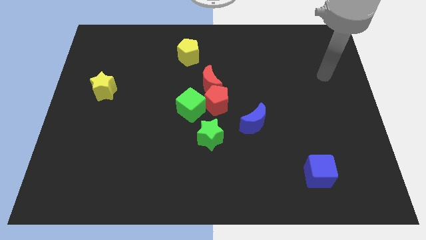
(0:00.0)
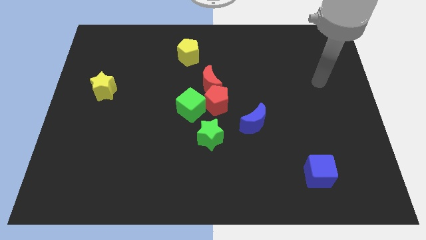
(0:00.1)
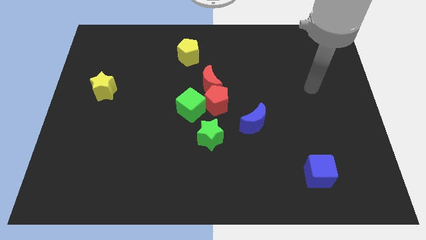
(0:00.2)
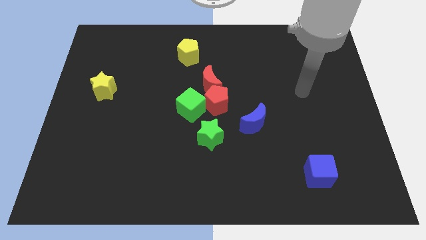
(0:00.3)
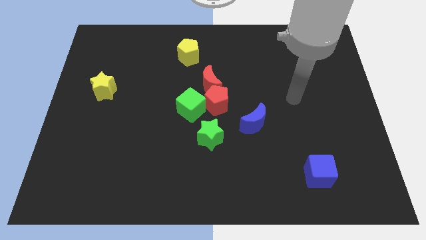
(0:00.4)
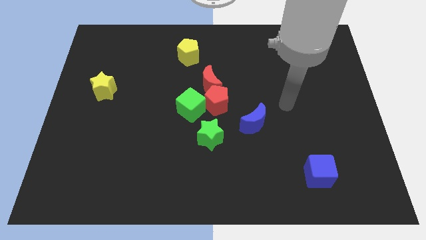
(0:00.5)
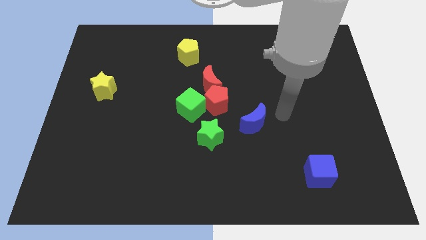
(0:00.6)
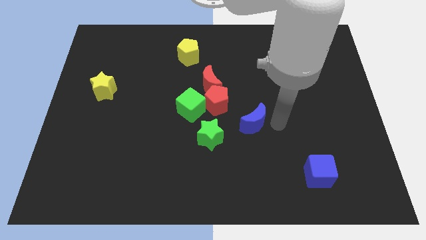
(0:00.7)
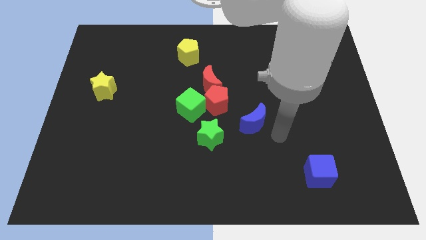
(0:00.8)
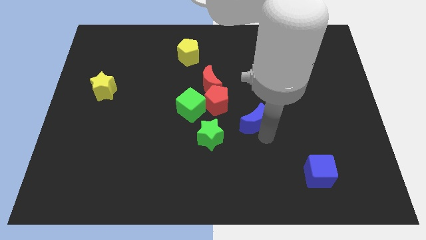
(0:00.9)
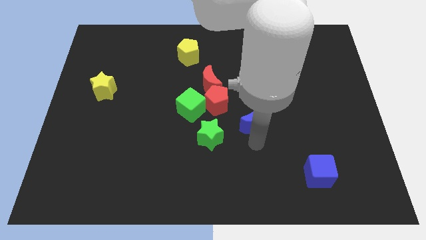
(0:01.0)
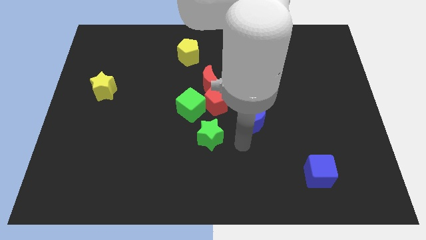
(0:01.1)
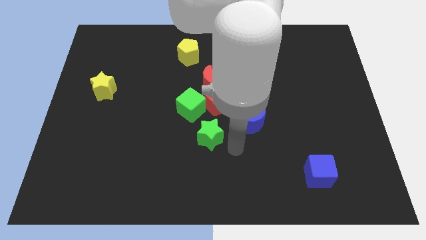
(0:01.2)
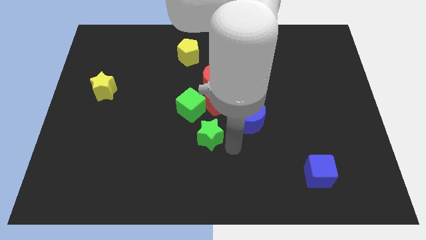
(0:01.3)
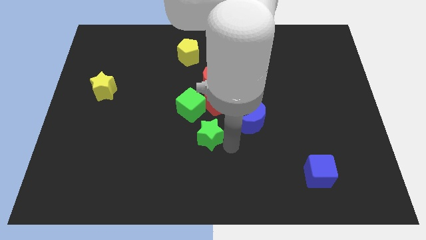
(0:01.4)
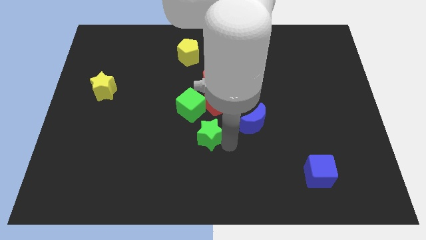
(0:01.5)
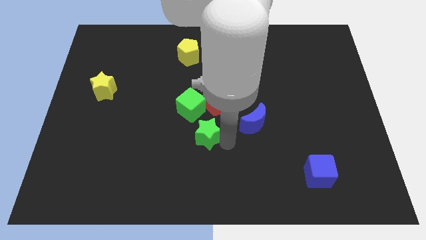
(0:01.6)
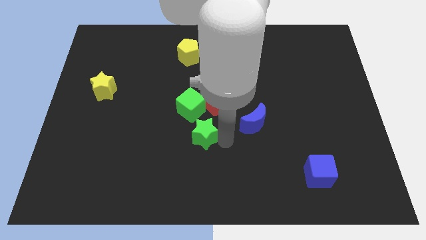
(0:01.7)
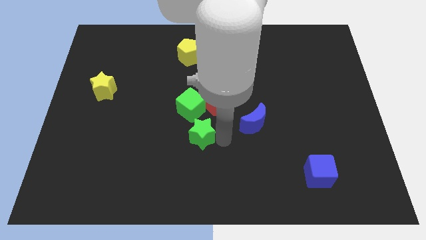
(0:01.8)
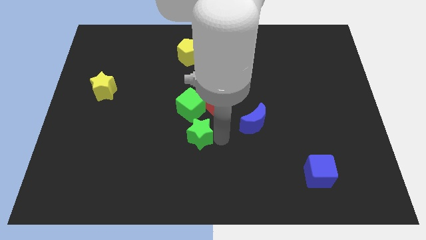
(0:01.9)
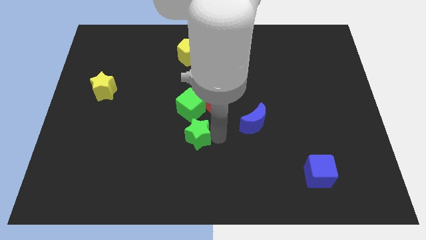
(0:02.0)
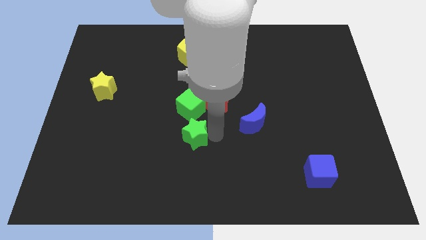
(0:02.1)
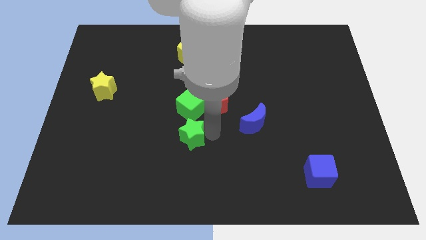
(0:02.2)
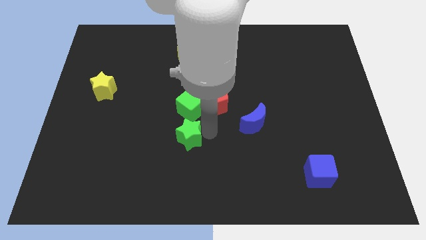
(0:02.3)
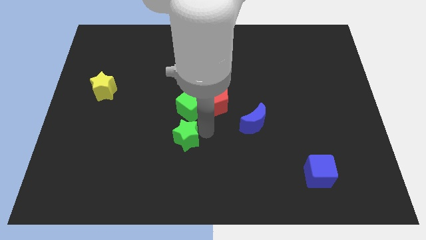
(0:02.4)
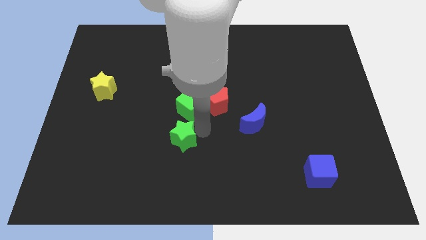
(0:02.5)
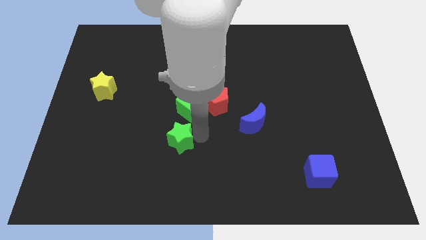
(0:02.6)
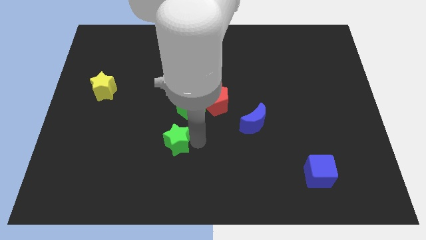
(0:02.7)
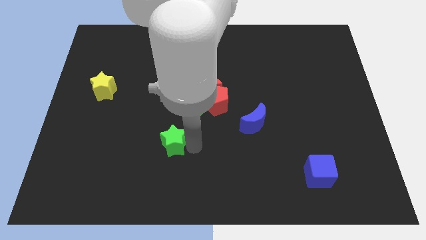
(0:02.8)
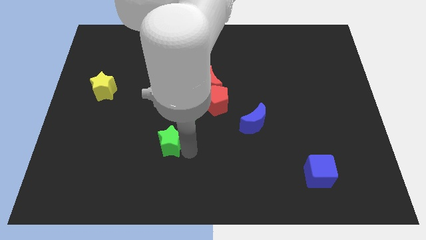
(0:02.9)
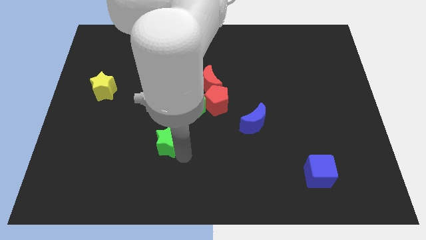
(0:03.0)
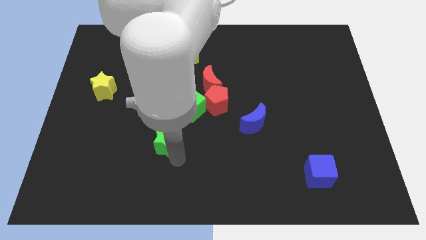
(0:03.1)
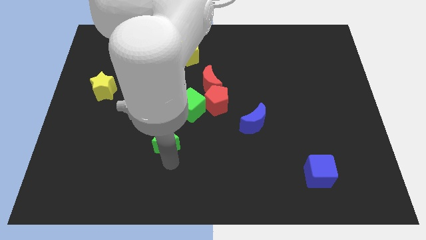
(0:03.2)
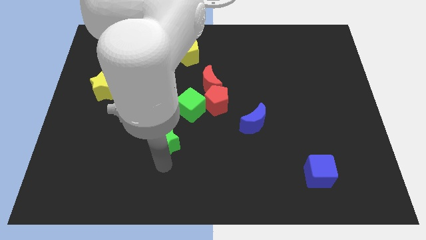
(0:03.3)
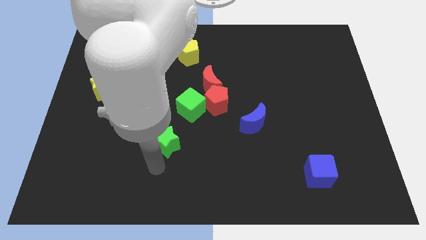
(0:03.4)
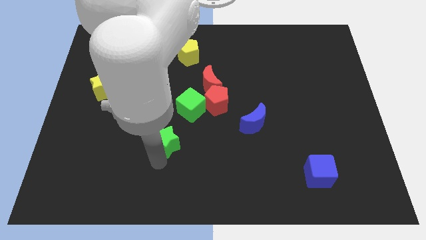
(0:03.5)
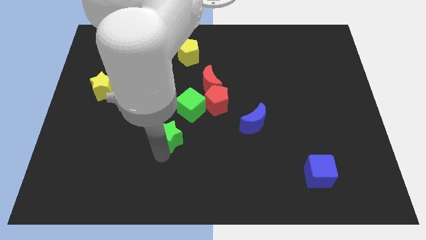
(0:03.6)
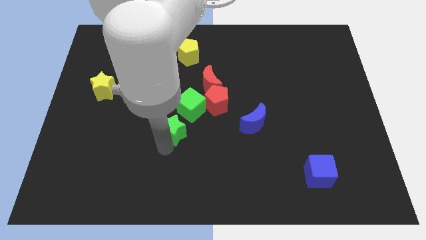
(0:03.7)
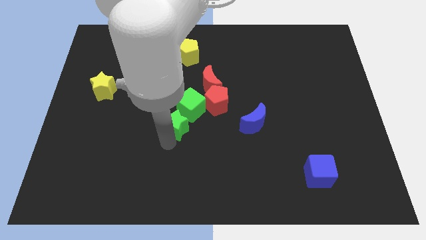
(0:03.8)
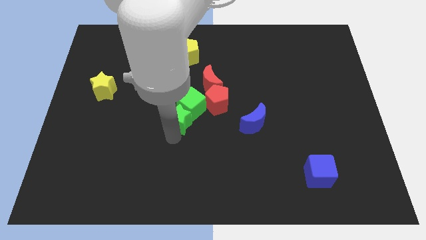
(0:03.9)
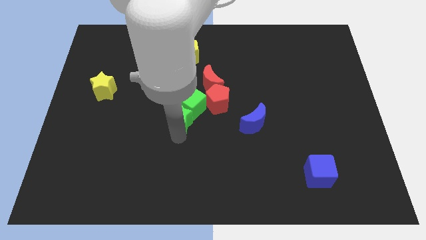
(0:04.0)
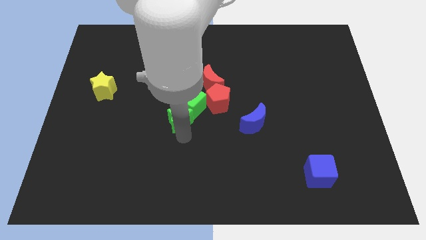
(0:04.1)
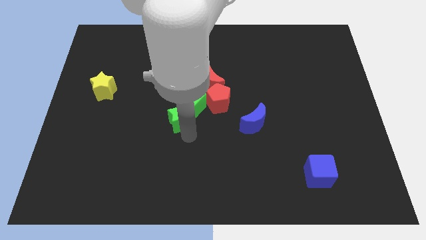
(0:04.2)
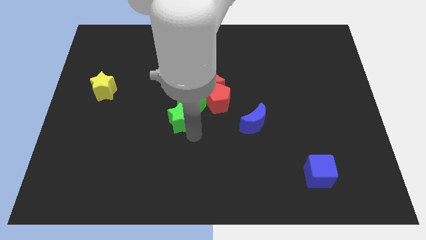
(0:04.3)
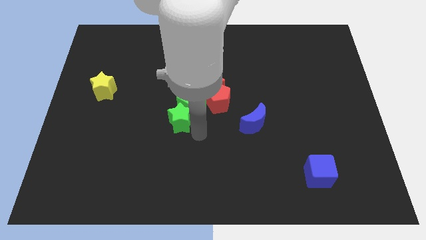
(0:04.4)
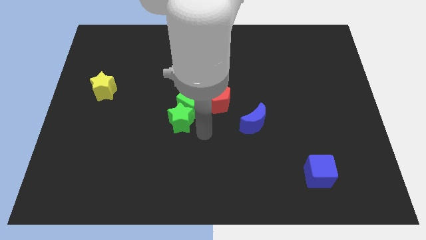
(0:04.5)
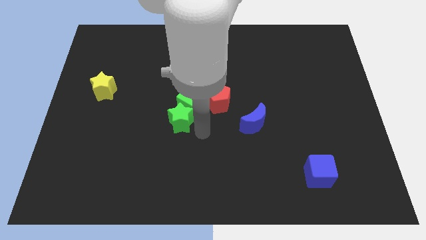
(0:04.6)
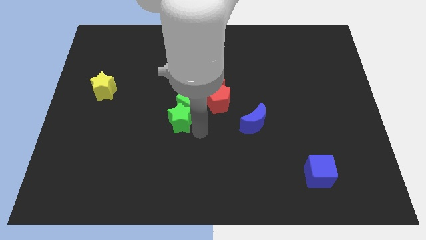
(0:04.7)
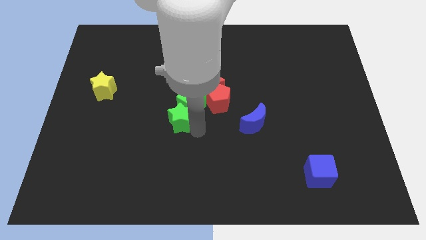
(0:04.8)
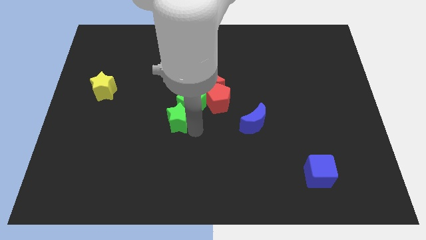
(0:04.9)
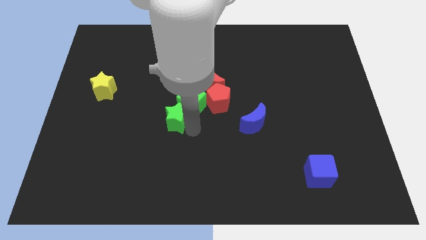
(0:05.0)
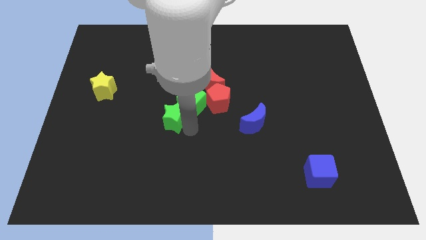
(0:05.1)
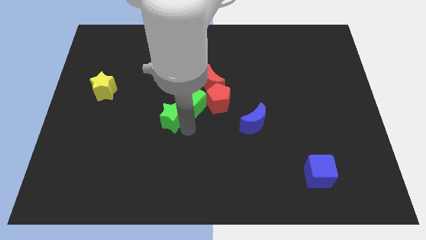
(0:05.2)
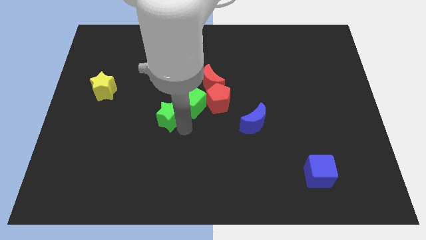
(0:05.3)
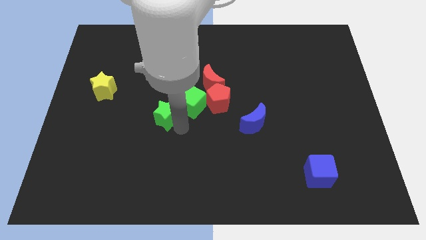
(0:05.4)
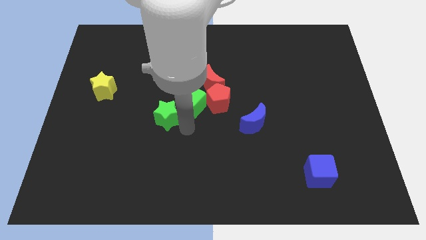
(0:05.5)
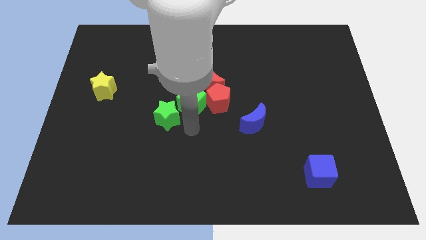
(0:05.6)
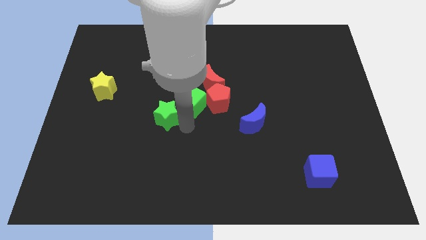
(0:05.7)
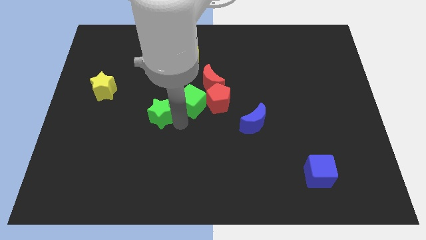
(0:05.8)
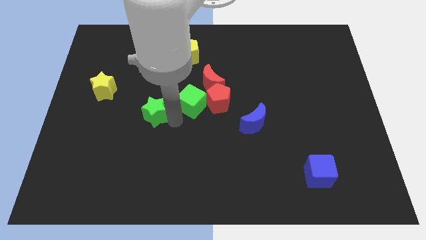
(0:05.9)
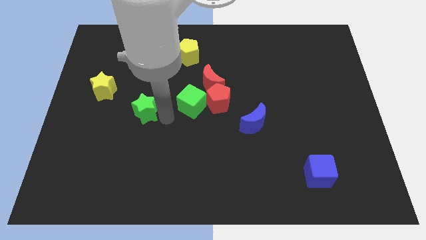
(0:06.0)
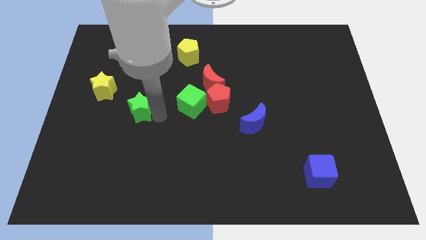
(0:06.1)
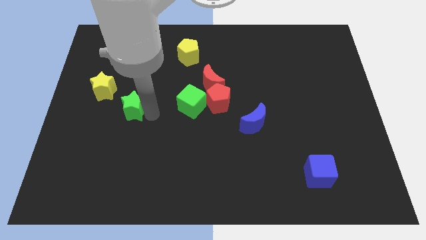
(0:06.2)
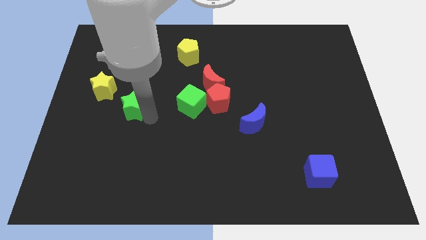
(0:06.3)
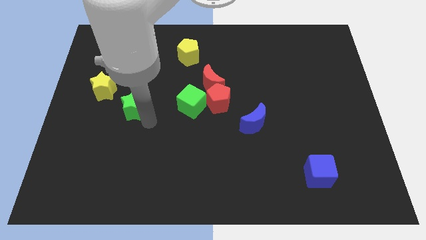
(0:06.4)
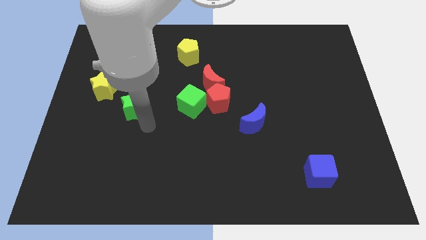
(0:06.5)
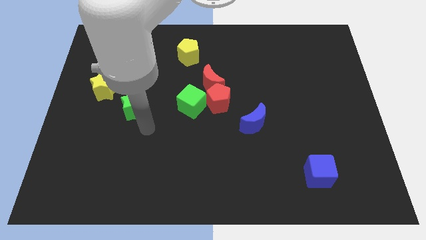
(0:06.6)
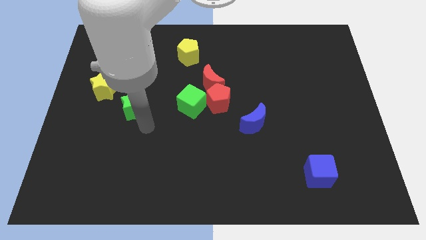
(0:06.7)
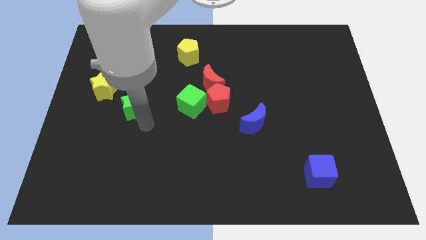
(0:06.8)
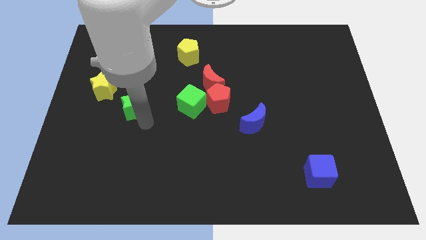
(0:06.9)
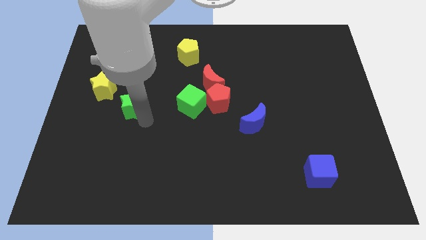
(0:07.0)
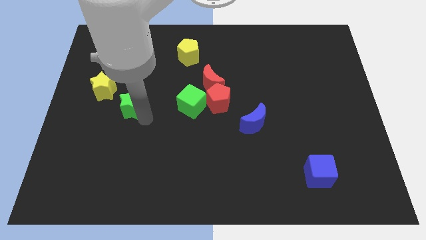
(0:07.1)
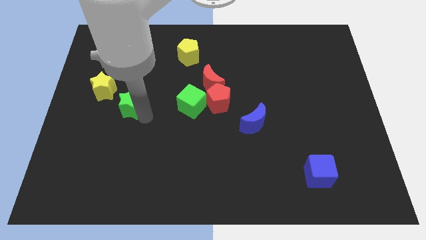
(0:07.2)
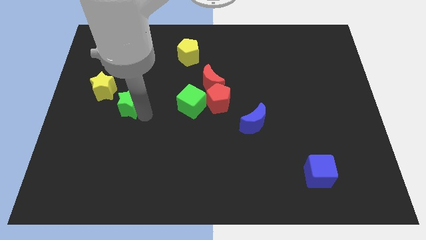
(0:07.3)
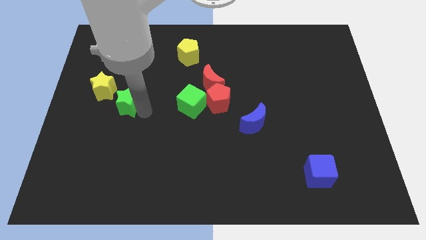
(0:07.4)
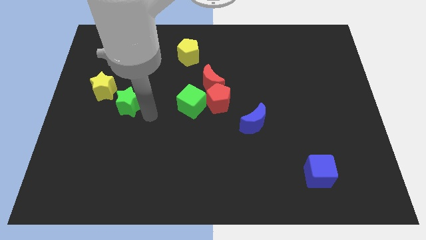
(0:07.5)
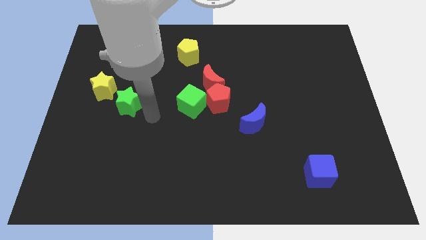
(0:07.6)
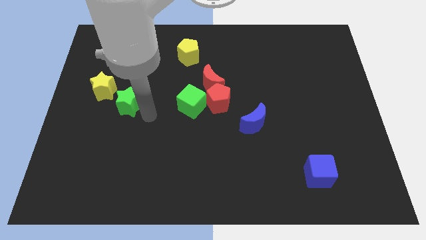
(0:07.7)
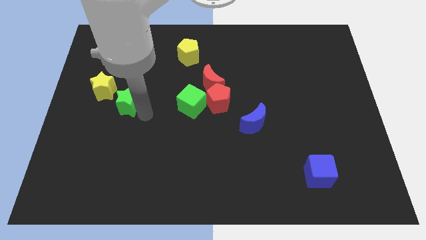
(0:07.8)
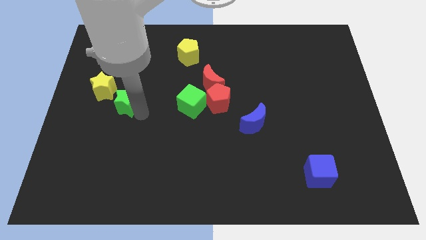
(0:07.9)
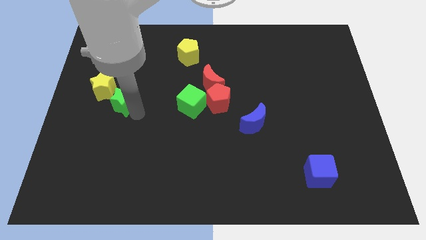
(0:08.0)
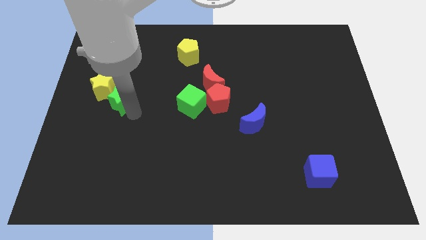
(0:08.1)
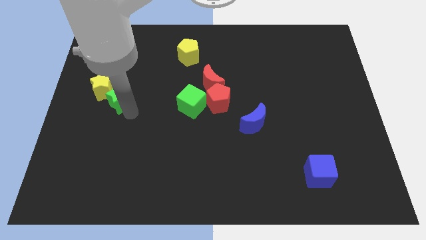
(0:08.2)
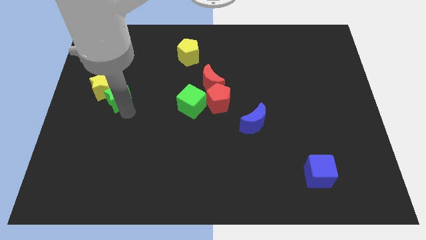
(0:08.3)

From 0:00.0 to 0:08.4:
move the green star towards the yellow star
